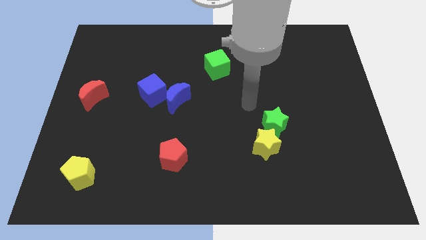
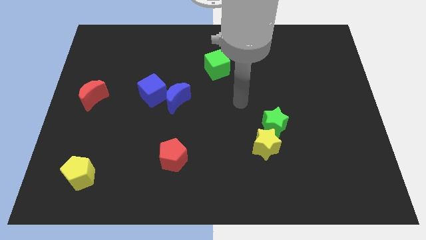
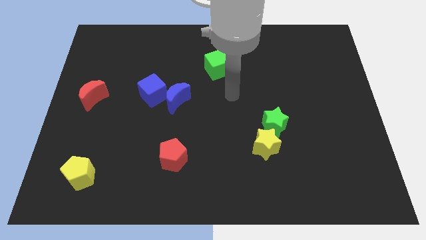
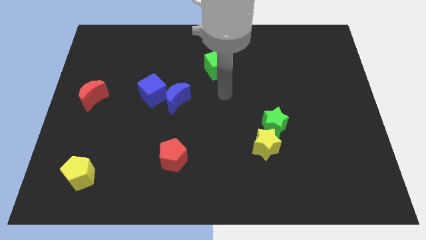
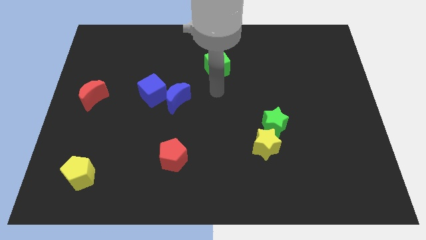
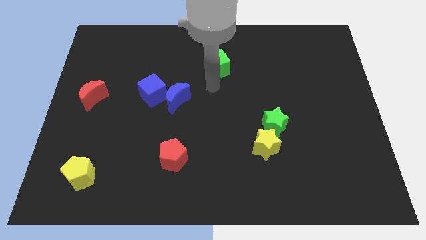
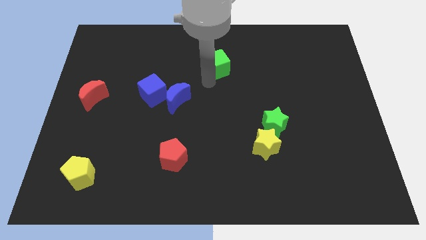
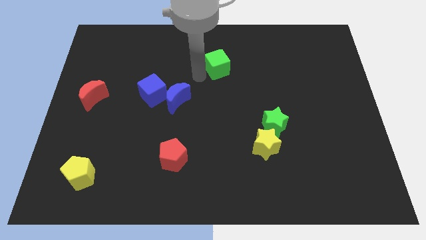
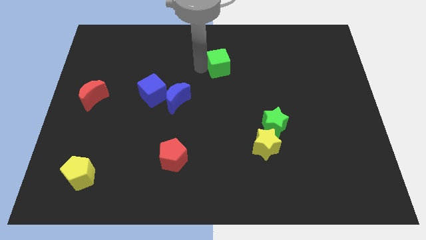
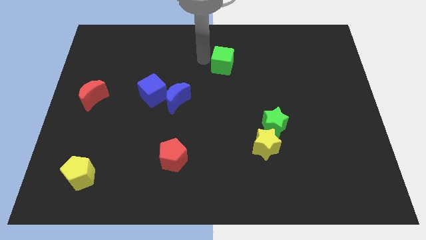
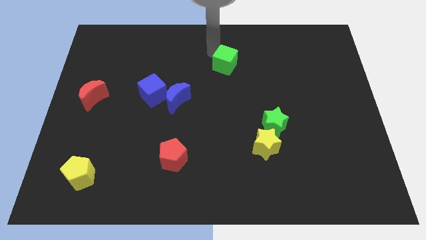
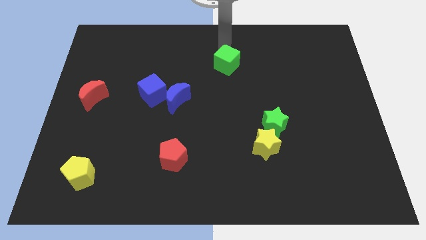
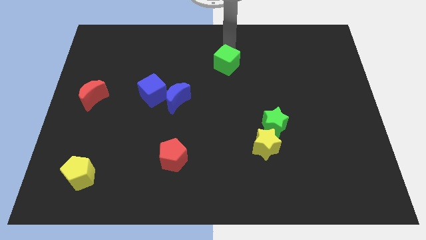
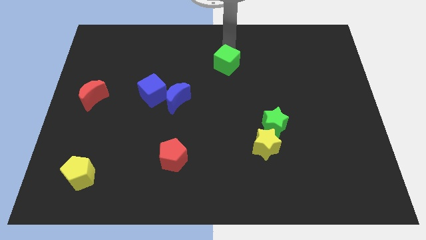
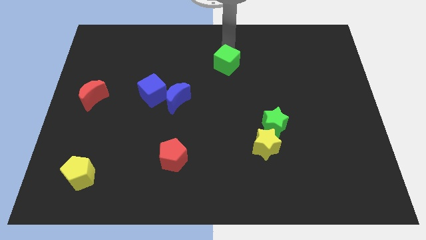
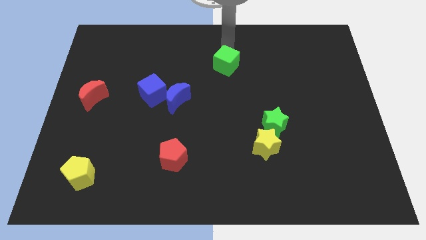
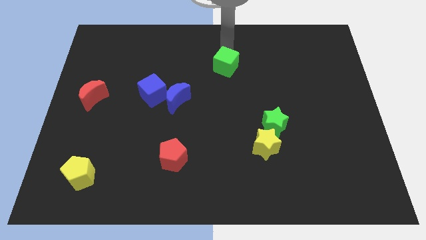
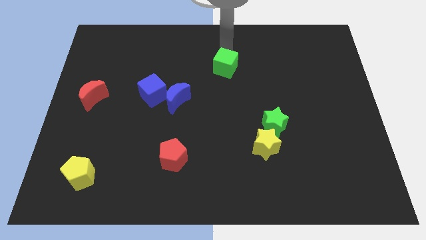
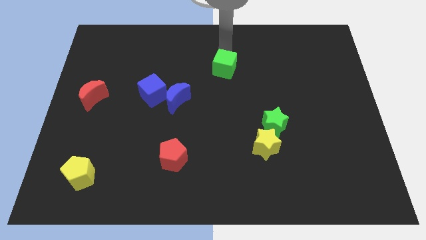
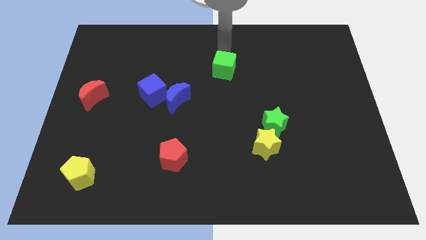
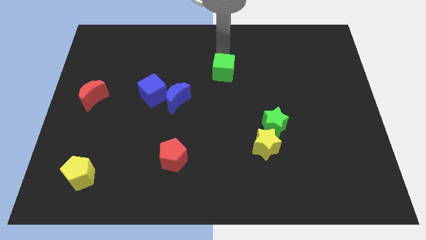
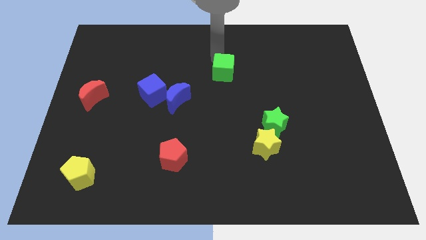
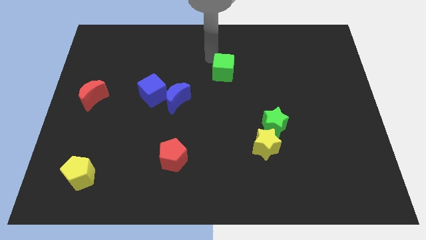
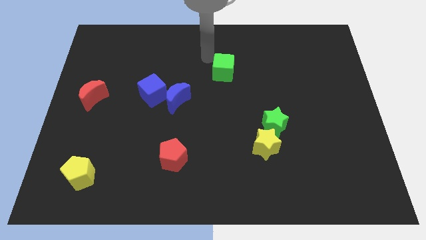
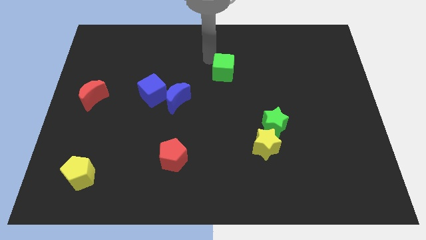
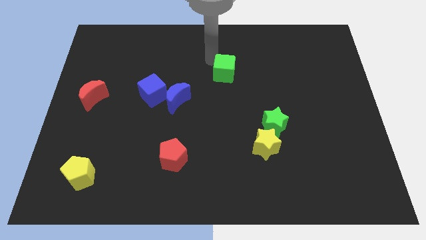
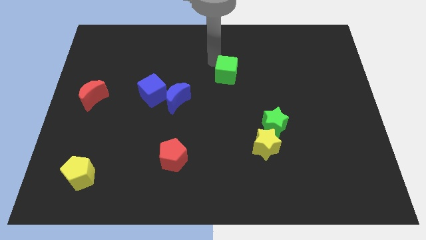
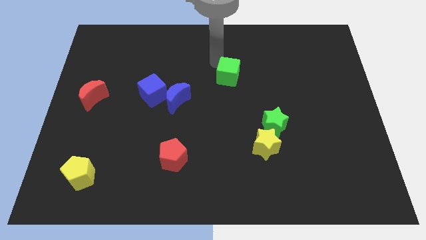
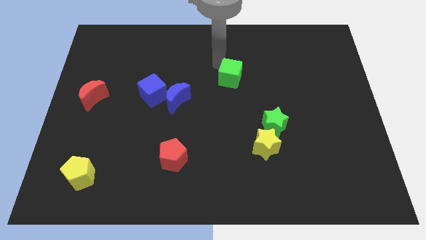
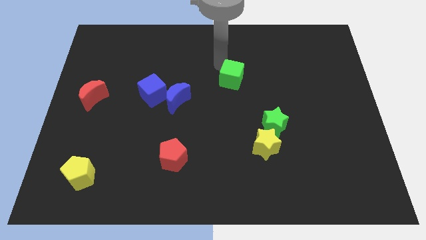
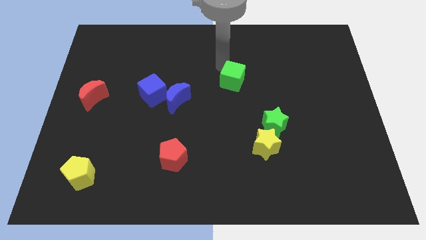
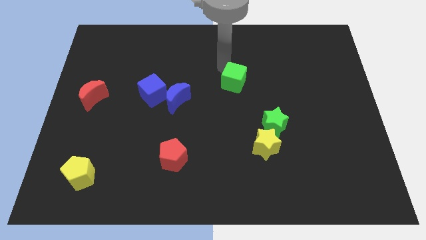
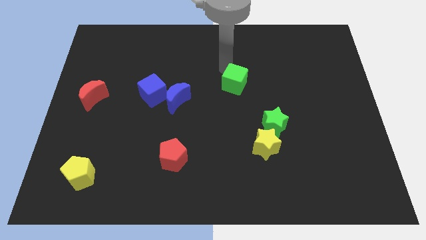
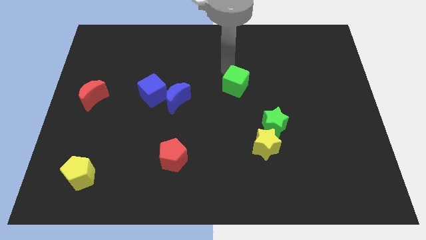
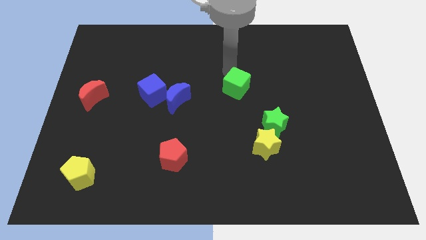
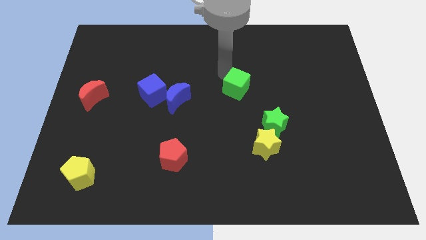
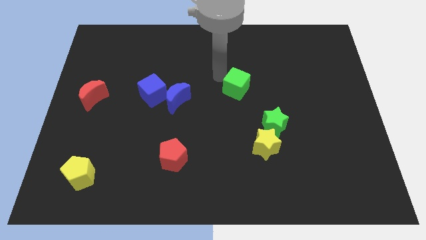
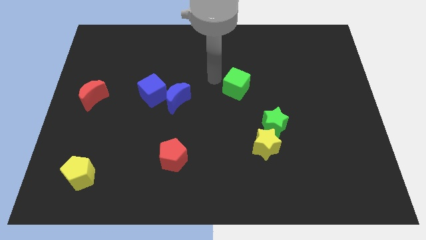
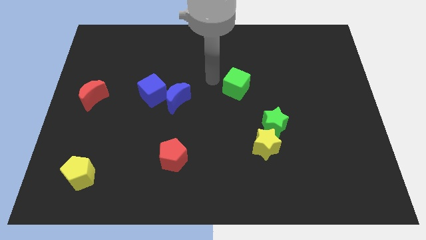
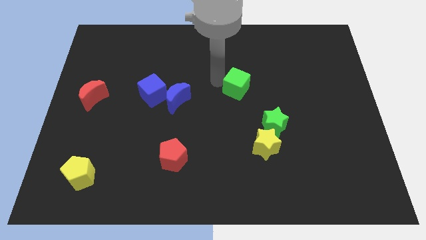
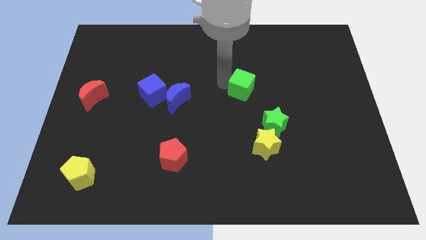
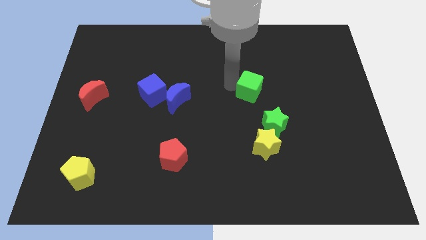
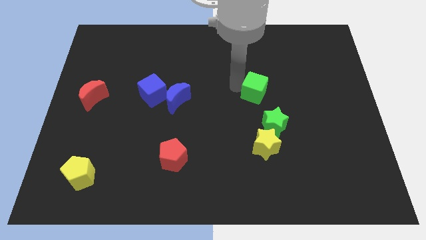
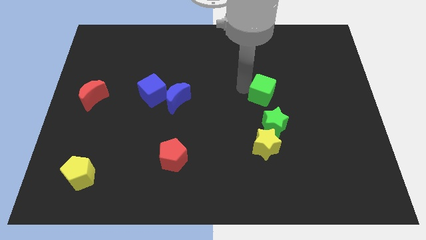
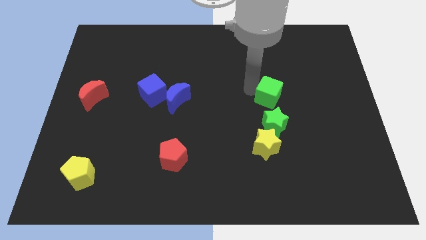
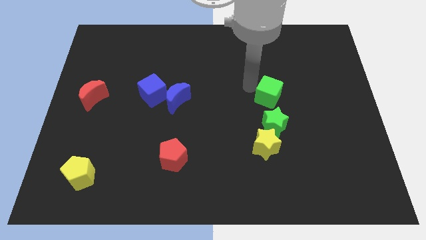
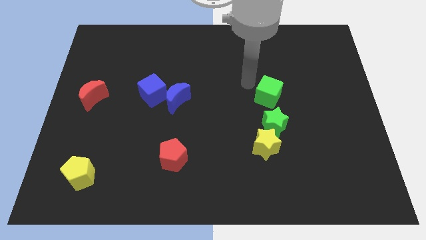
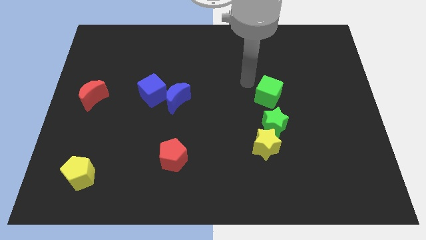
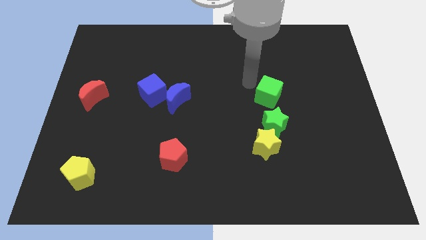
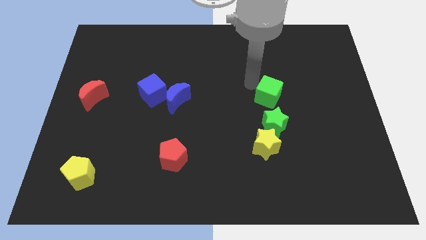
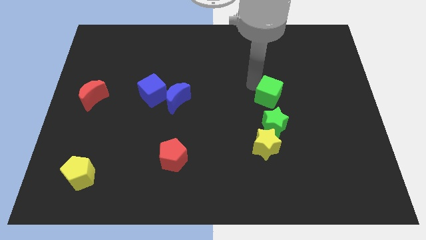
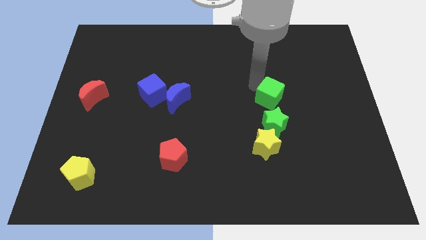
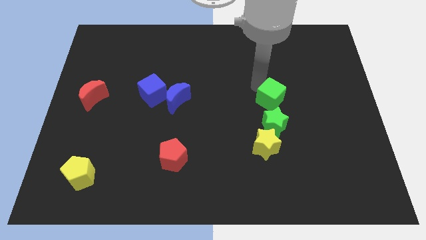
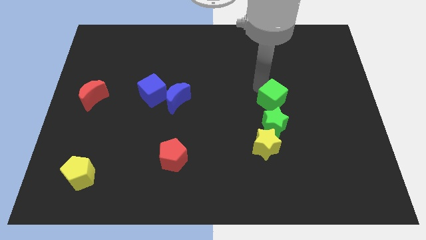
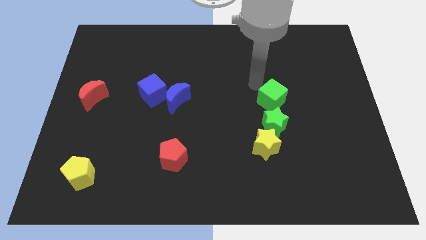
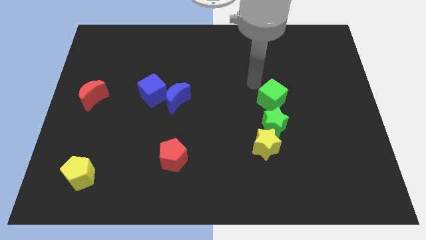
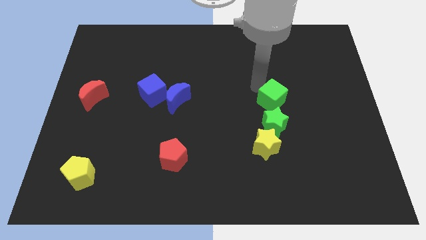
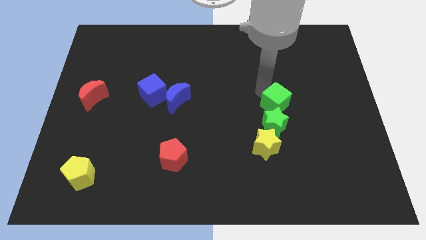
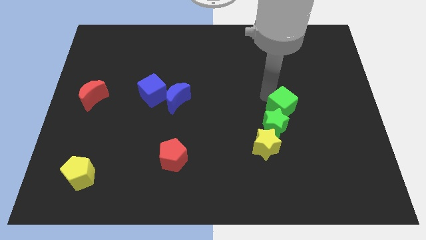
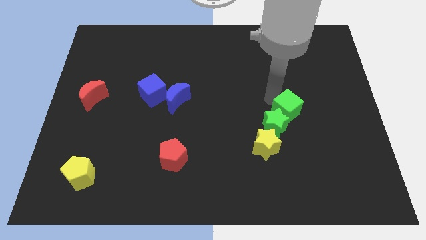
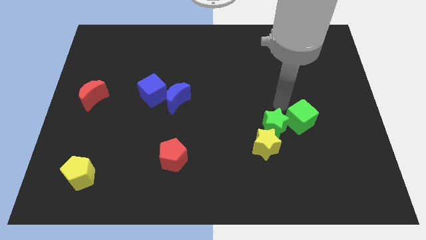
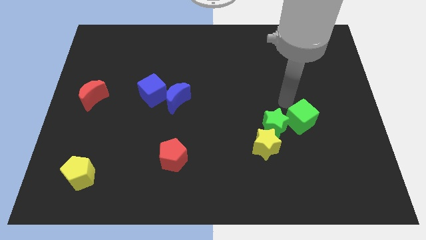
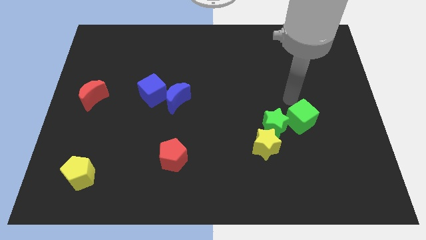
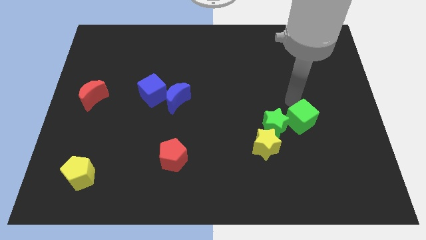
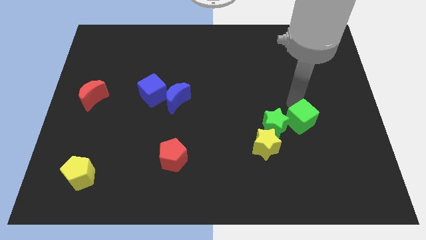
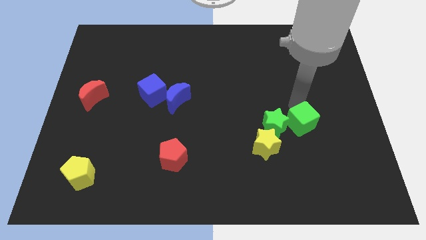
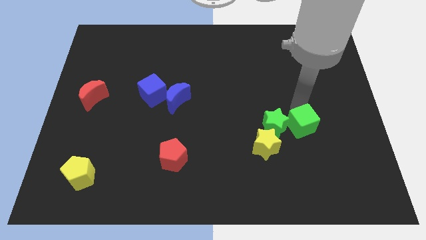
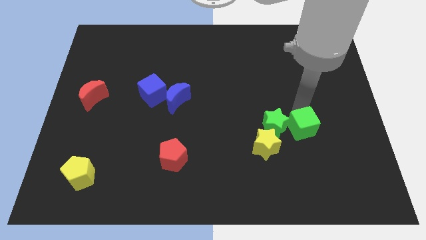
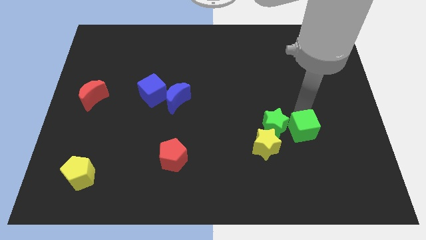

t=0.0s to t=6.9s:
put the green cube right of the yellow star

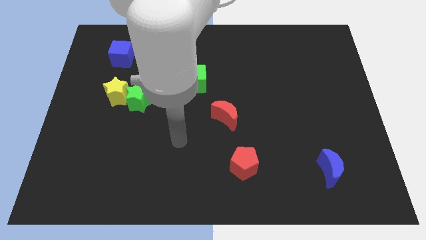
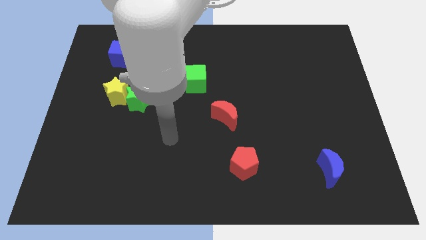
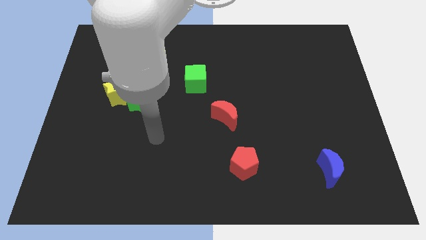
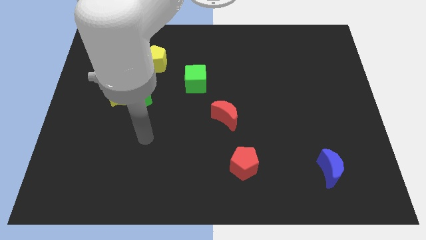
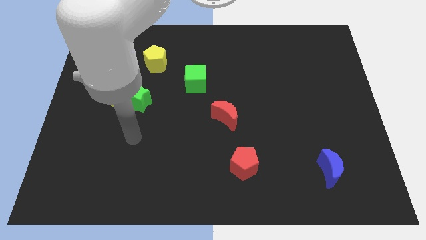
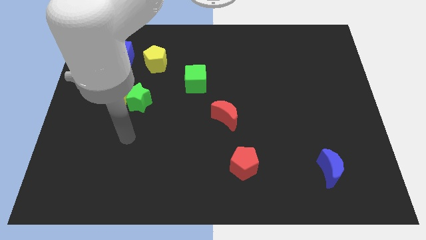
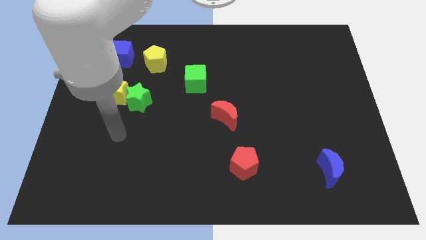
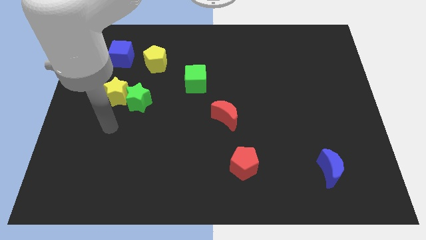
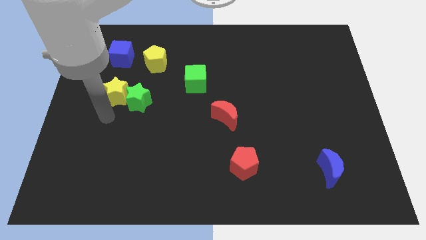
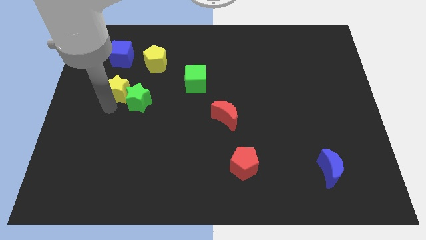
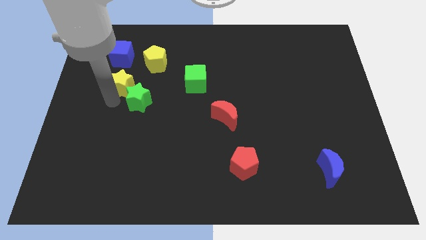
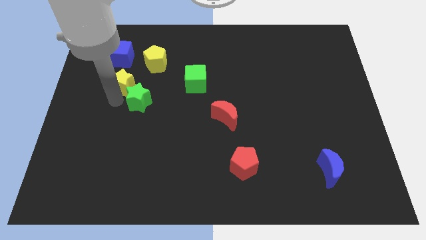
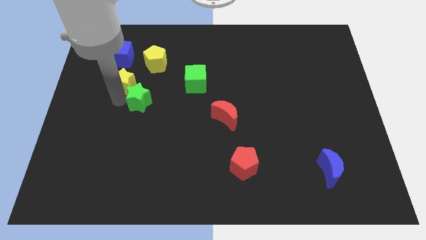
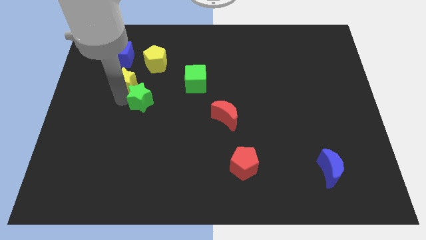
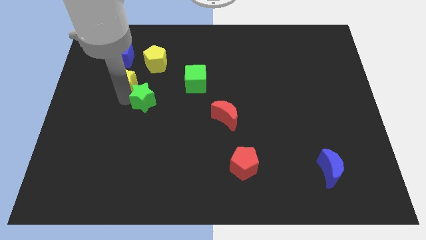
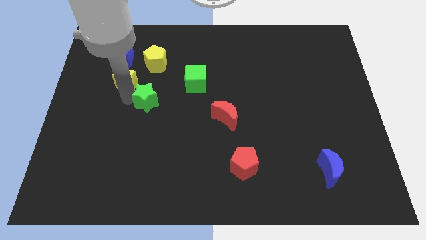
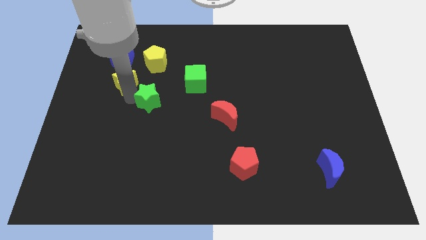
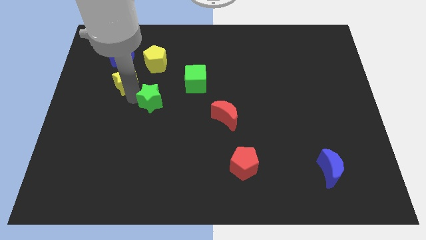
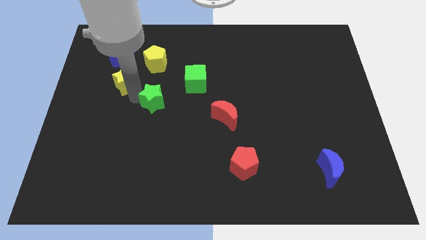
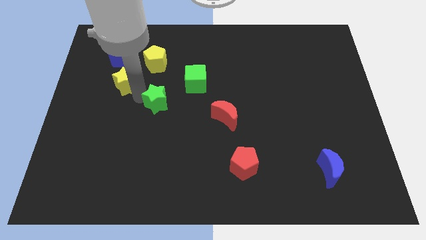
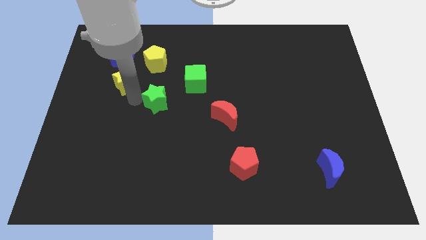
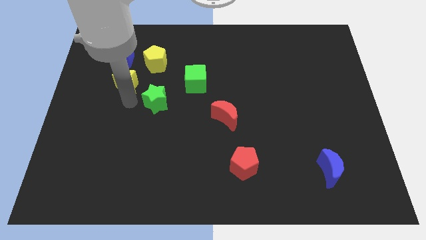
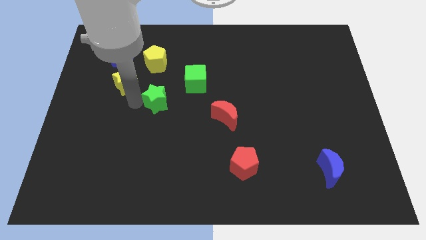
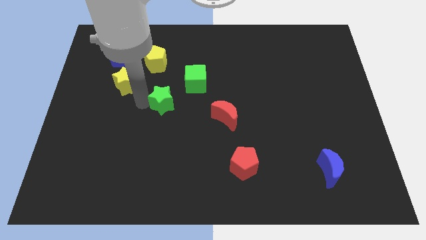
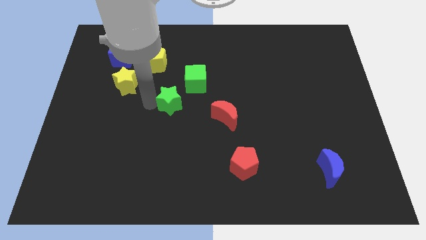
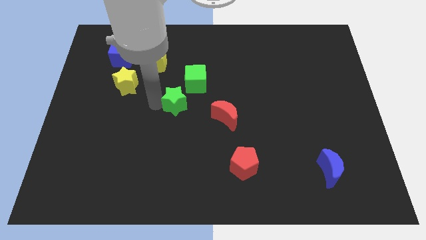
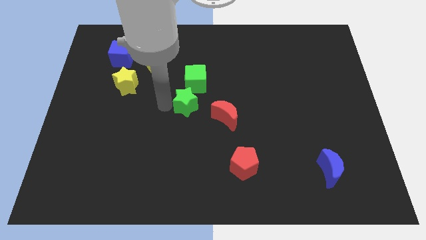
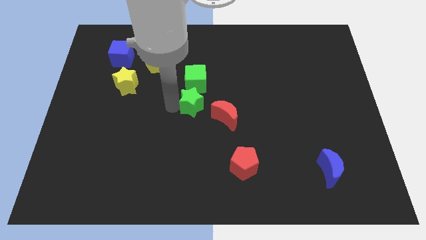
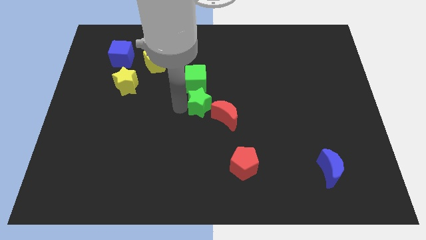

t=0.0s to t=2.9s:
put the green star diagonally down and to the right of the green cube
